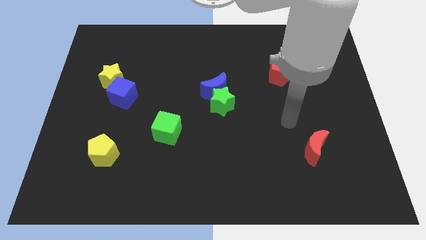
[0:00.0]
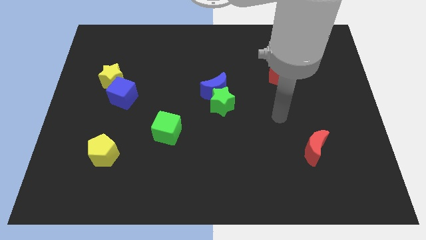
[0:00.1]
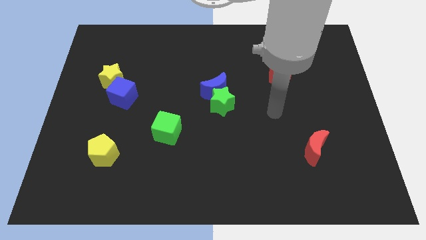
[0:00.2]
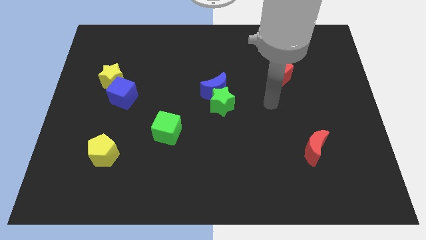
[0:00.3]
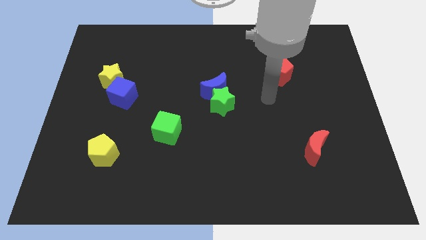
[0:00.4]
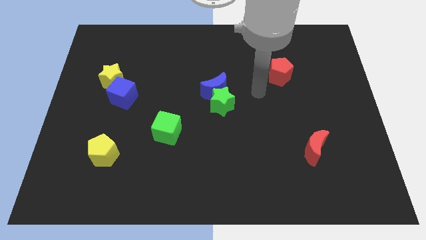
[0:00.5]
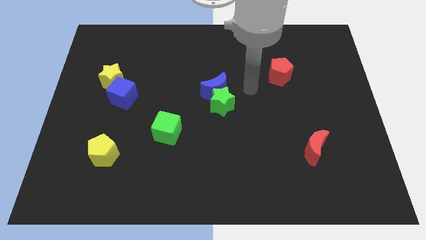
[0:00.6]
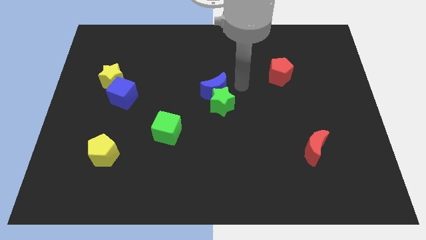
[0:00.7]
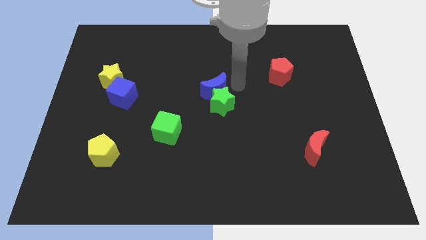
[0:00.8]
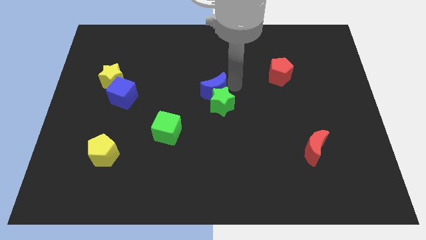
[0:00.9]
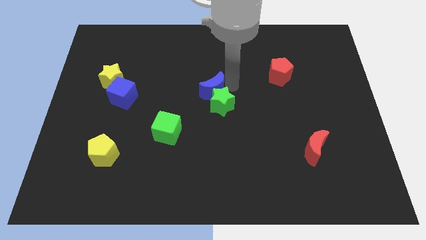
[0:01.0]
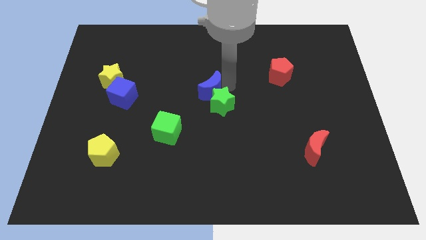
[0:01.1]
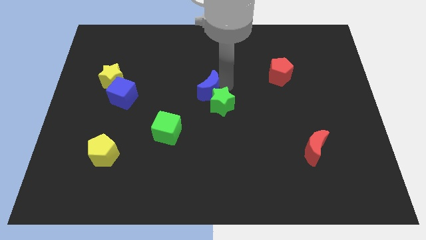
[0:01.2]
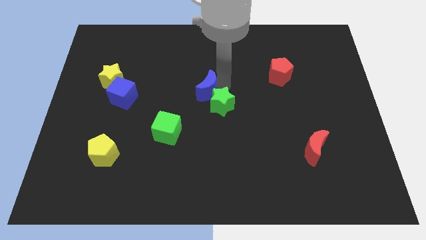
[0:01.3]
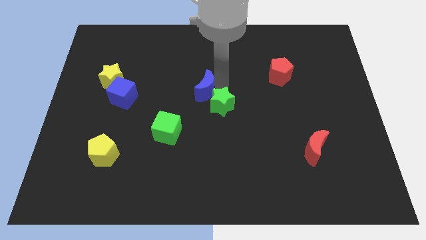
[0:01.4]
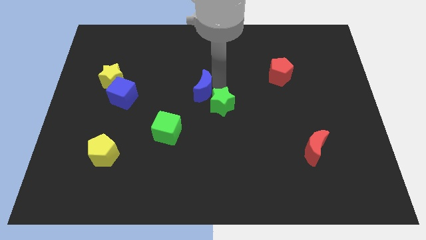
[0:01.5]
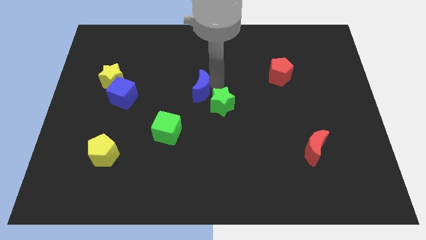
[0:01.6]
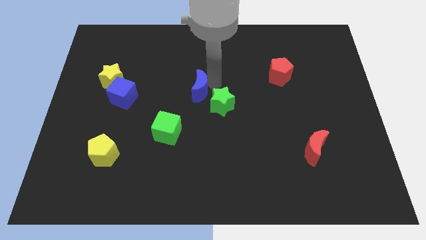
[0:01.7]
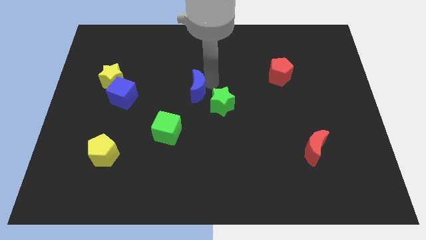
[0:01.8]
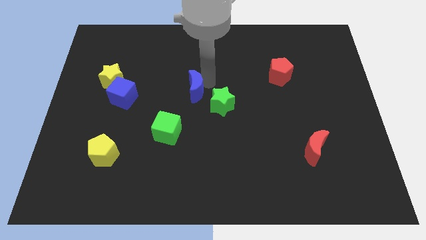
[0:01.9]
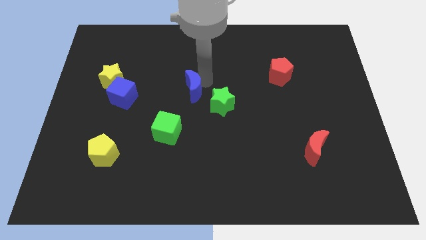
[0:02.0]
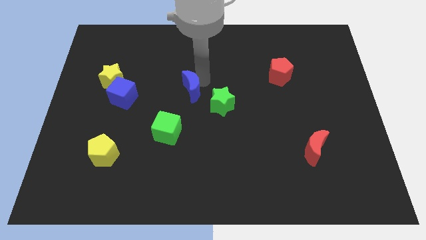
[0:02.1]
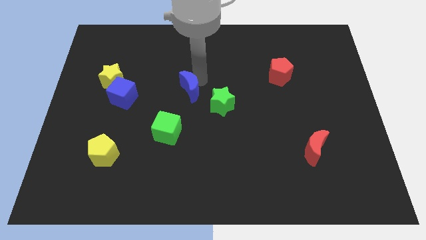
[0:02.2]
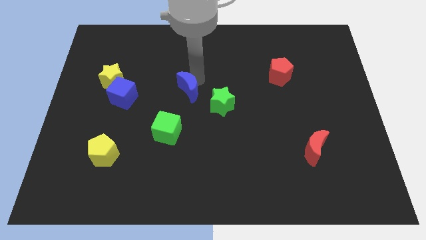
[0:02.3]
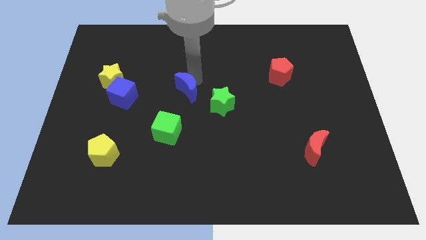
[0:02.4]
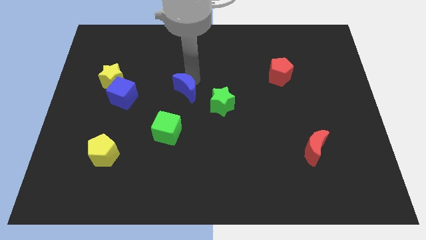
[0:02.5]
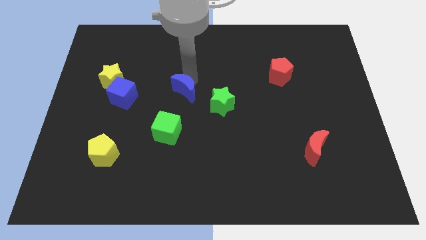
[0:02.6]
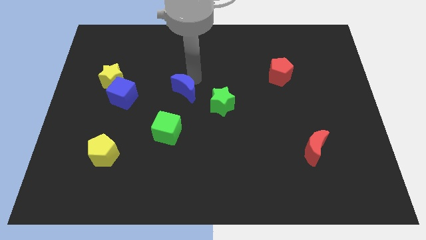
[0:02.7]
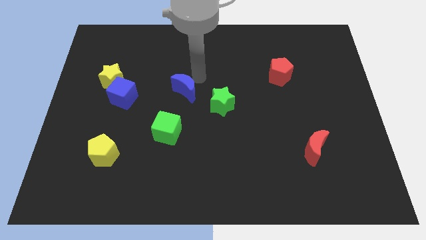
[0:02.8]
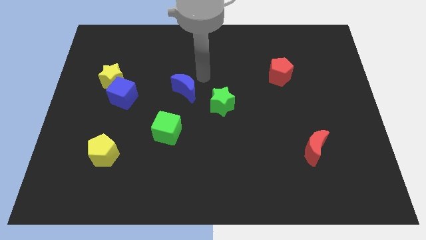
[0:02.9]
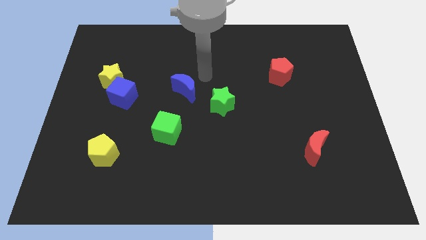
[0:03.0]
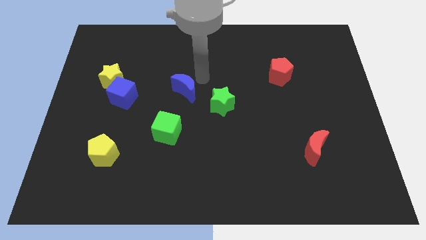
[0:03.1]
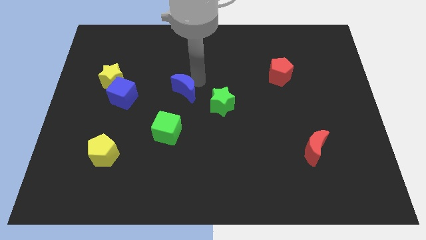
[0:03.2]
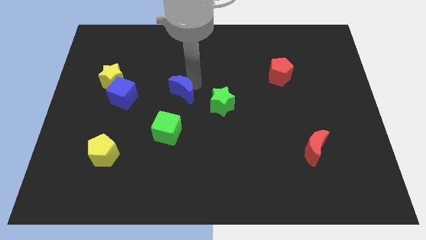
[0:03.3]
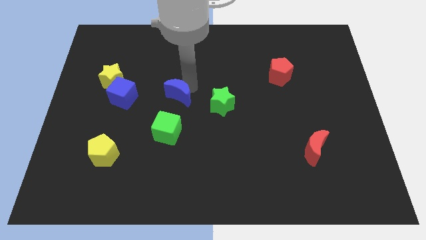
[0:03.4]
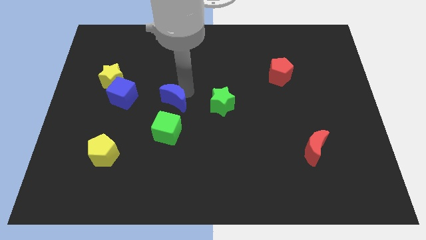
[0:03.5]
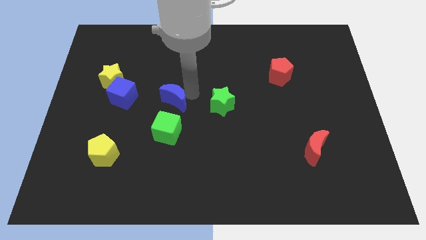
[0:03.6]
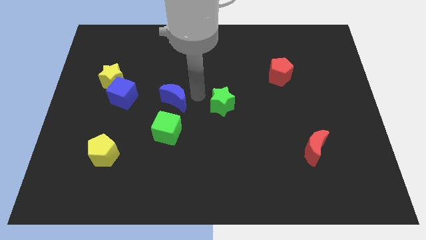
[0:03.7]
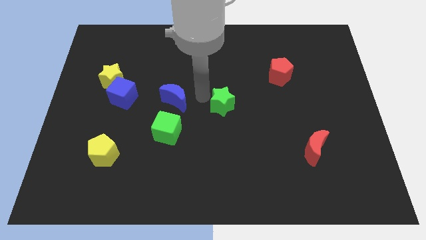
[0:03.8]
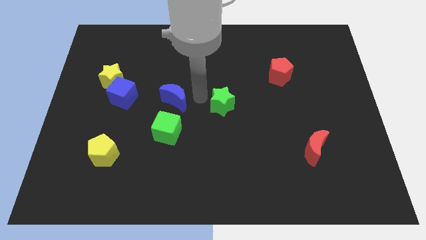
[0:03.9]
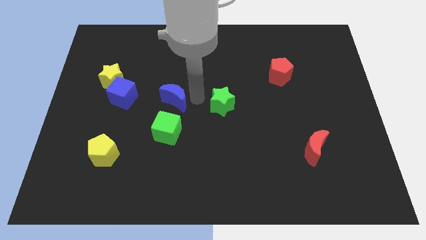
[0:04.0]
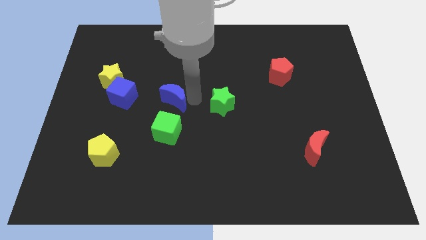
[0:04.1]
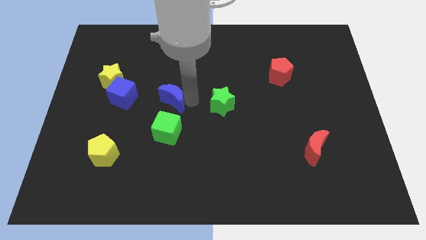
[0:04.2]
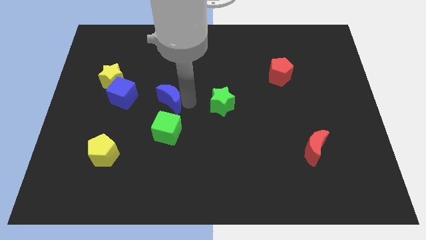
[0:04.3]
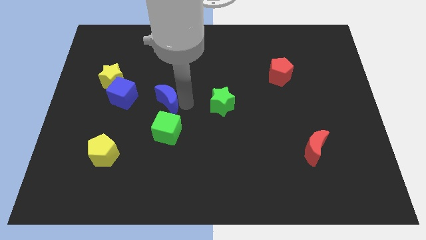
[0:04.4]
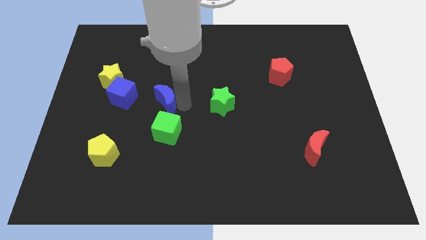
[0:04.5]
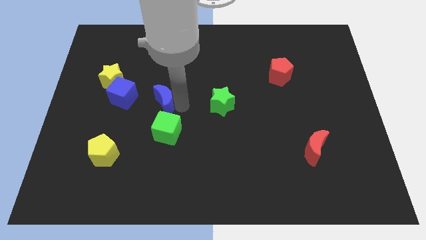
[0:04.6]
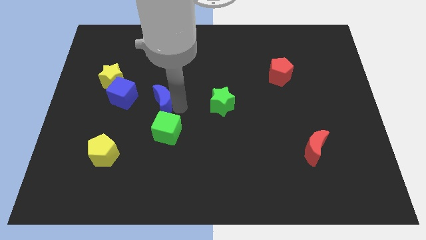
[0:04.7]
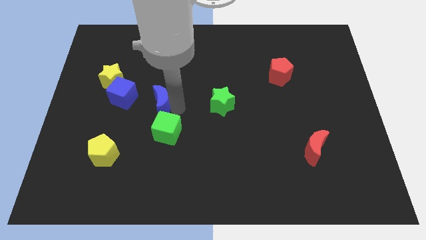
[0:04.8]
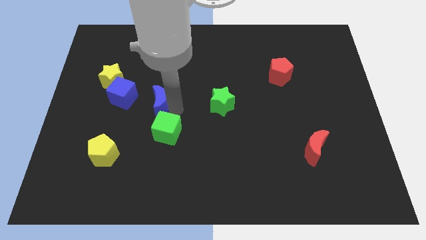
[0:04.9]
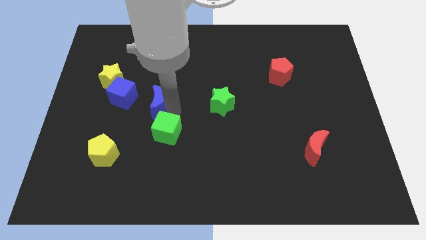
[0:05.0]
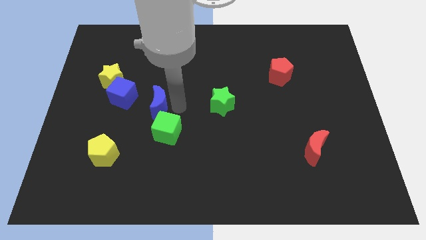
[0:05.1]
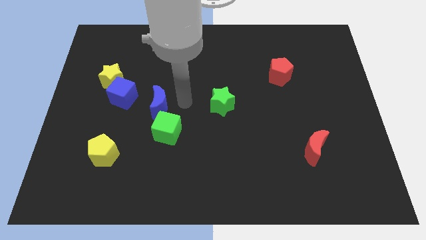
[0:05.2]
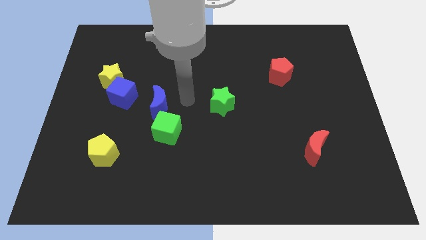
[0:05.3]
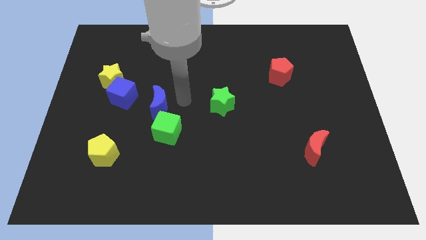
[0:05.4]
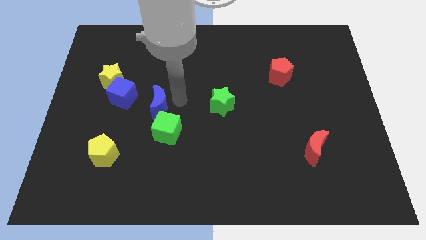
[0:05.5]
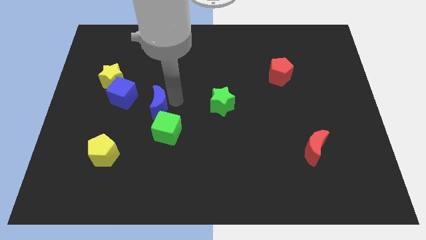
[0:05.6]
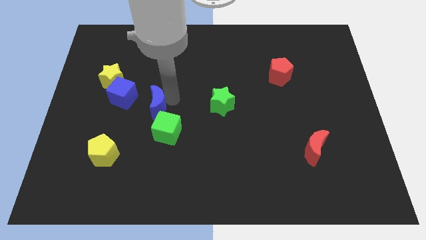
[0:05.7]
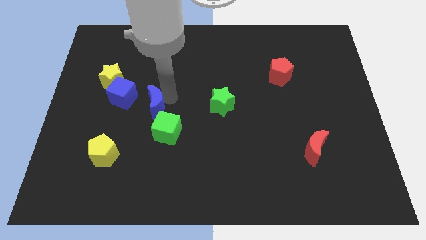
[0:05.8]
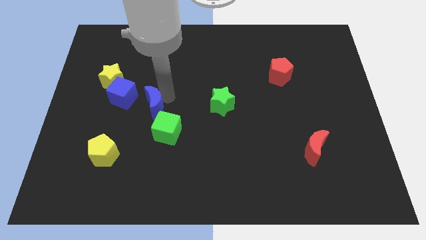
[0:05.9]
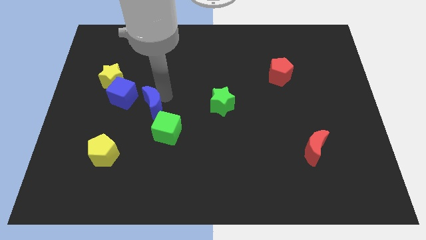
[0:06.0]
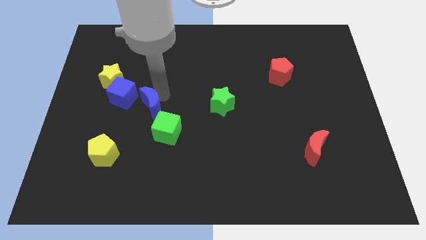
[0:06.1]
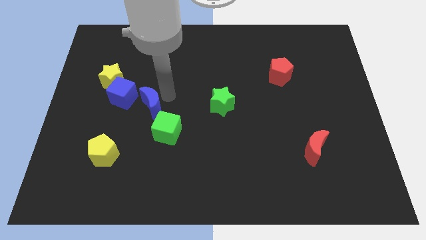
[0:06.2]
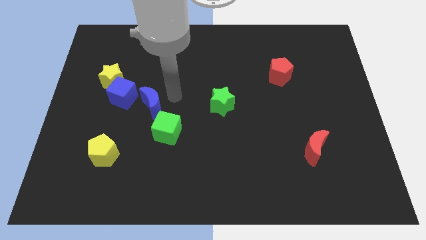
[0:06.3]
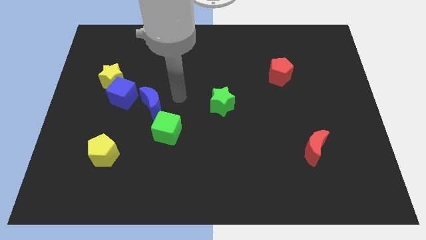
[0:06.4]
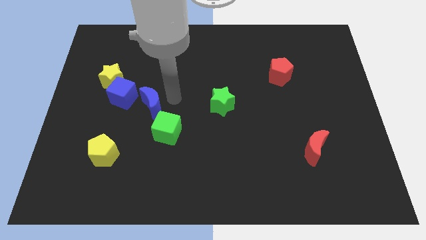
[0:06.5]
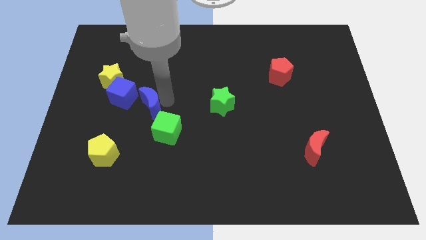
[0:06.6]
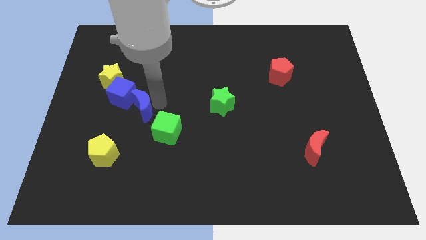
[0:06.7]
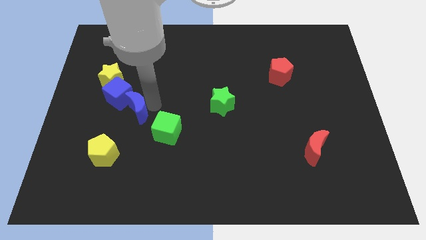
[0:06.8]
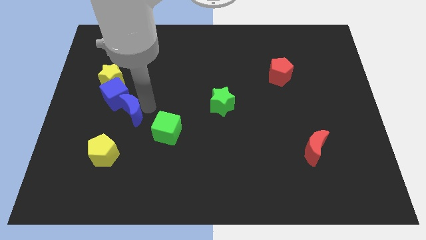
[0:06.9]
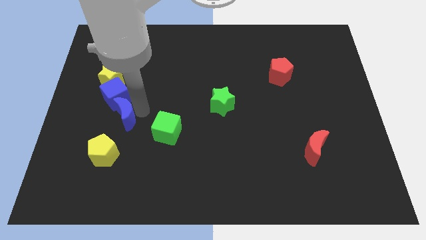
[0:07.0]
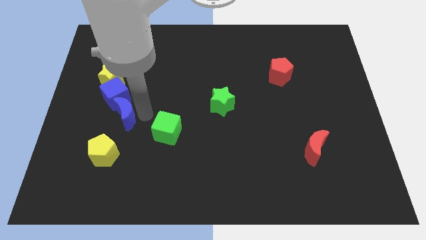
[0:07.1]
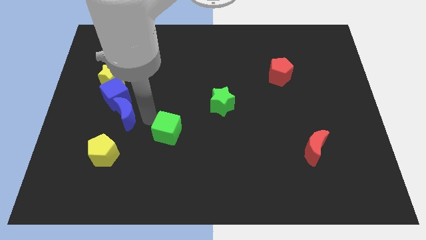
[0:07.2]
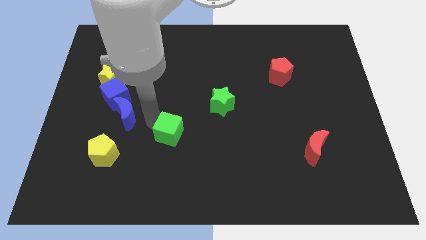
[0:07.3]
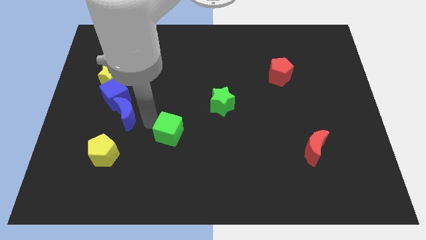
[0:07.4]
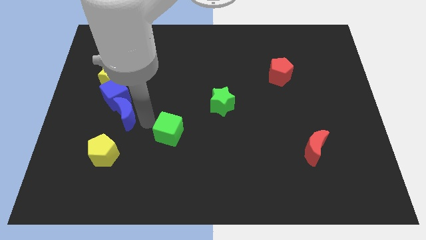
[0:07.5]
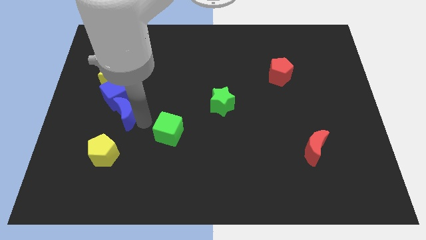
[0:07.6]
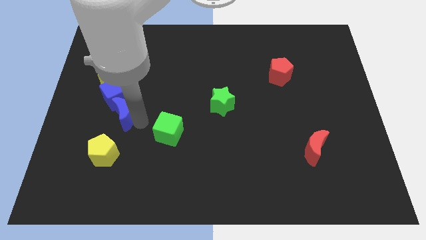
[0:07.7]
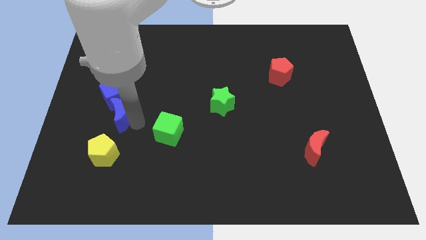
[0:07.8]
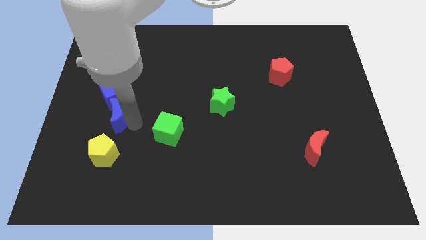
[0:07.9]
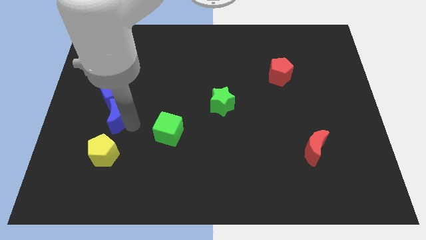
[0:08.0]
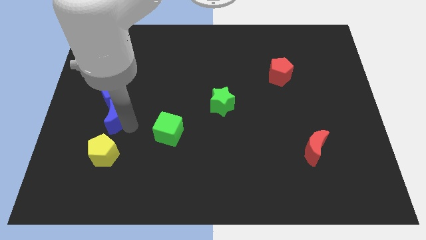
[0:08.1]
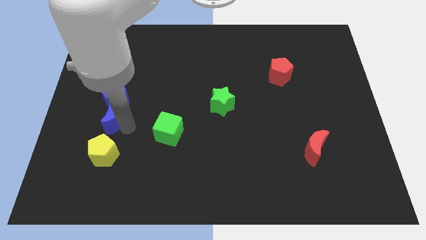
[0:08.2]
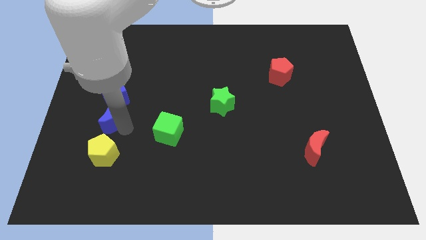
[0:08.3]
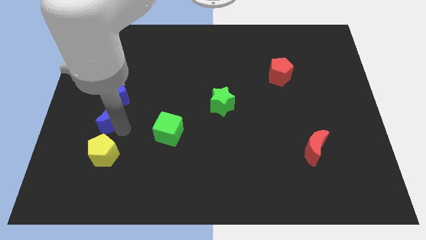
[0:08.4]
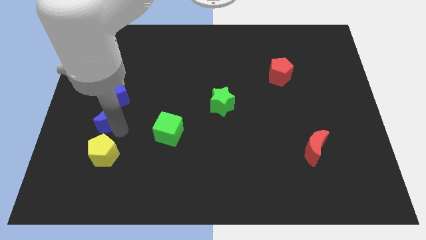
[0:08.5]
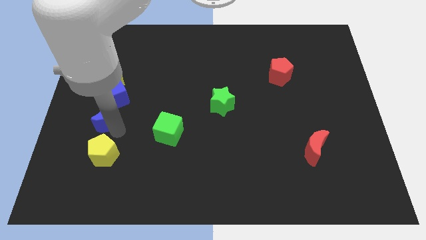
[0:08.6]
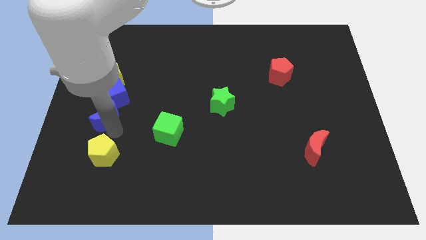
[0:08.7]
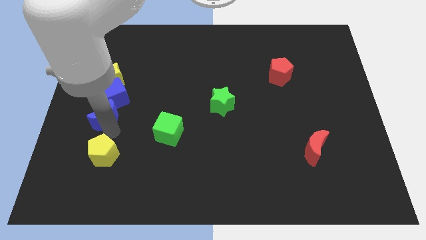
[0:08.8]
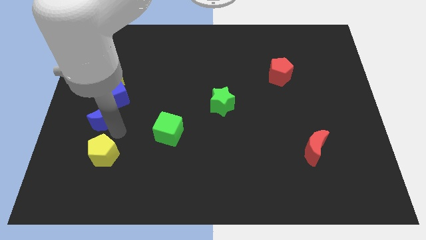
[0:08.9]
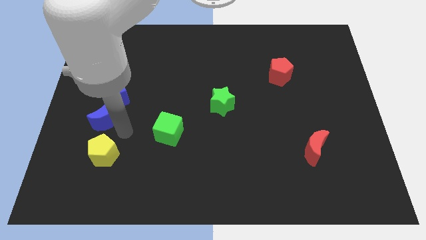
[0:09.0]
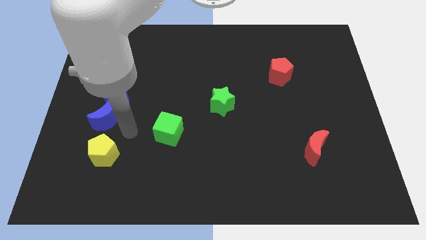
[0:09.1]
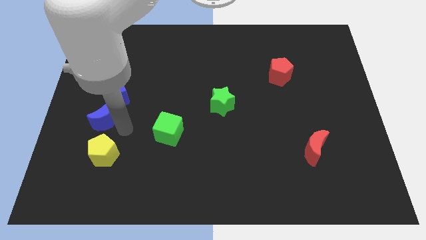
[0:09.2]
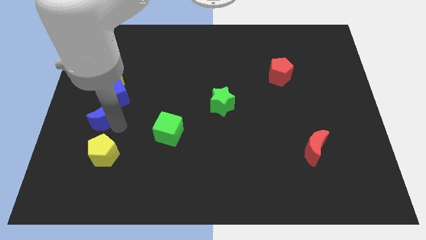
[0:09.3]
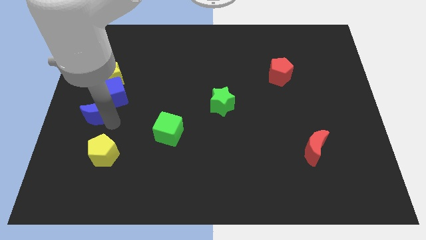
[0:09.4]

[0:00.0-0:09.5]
slide the blue moon to the center left
